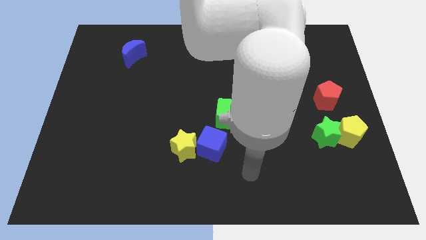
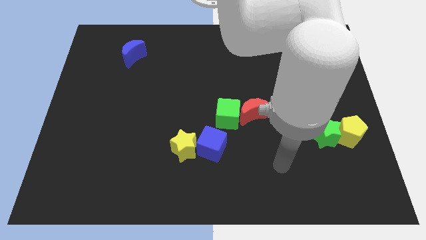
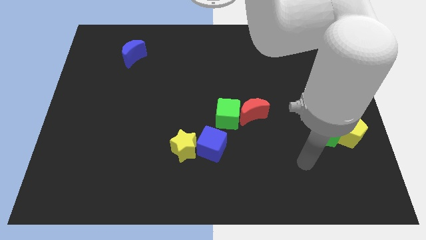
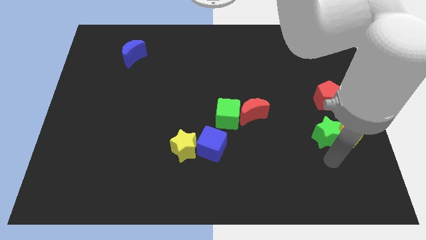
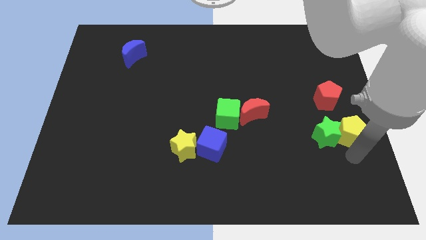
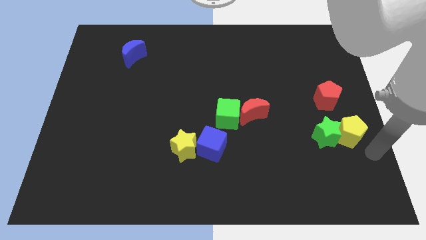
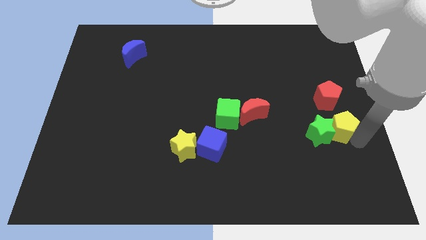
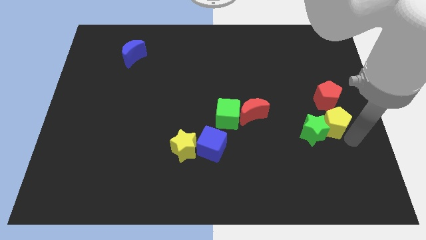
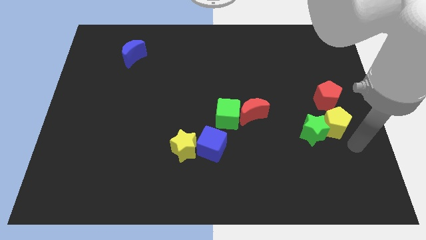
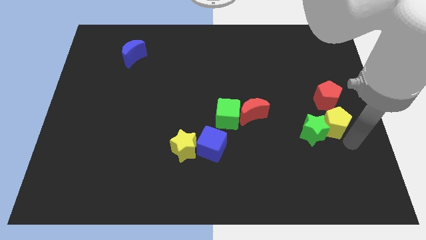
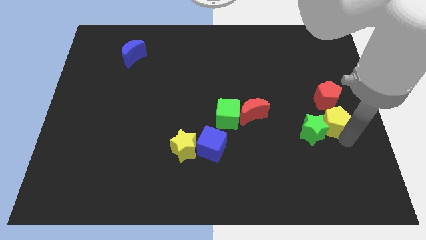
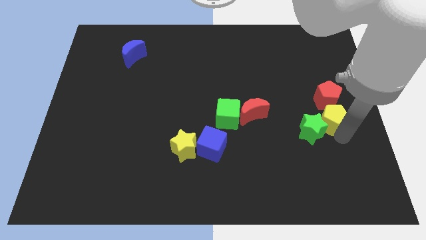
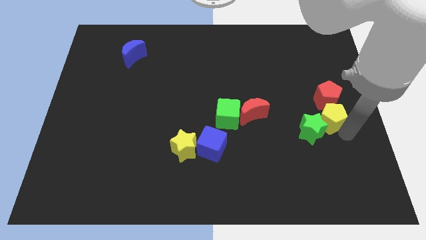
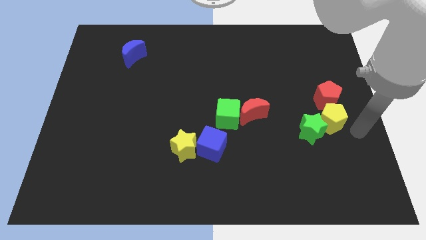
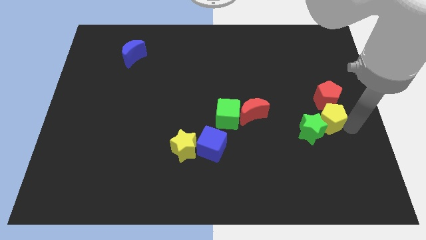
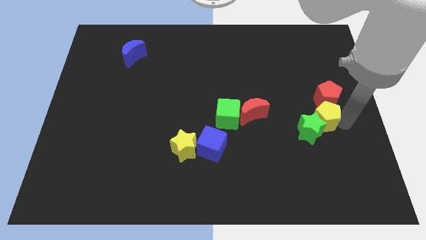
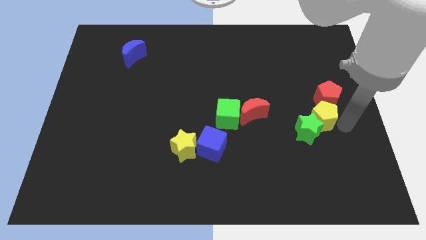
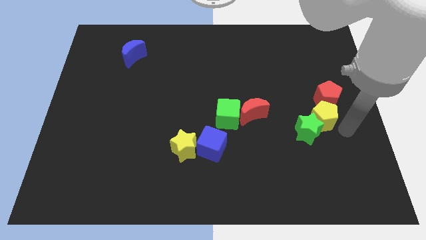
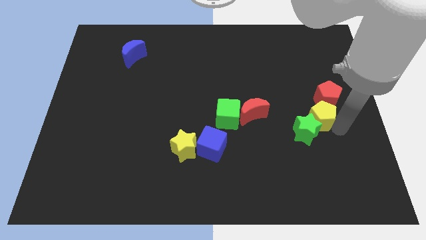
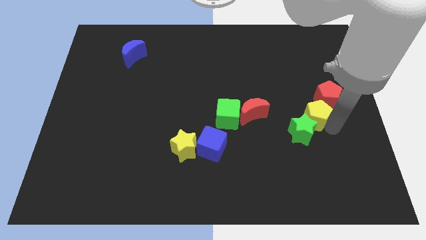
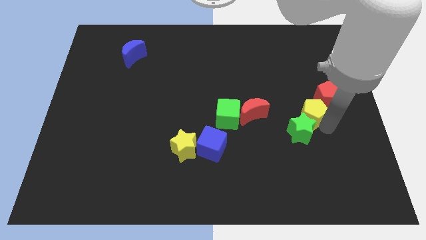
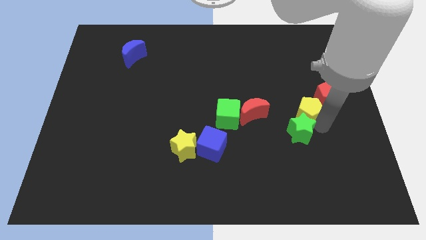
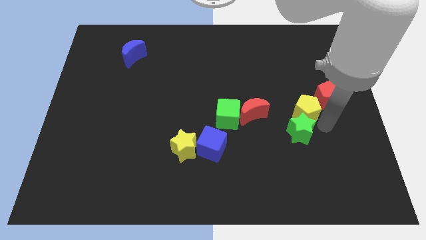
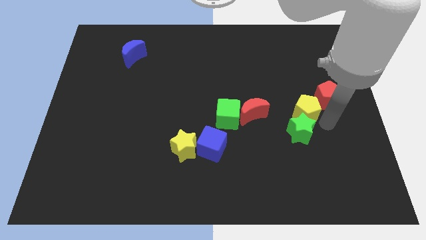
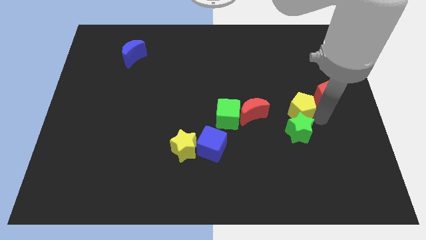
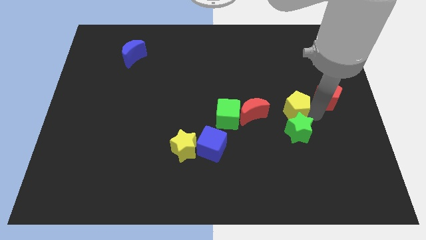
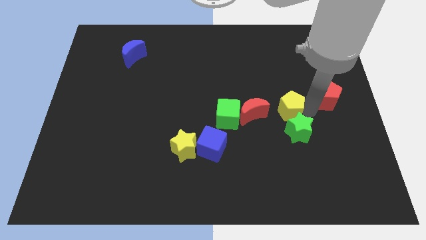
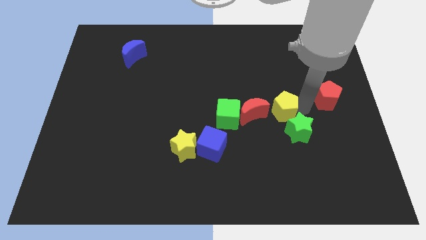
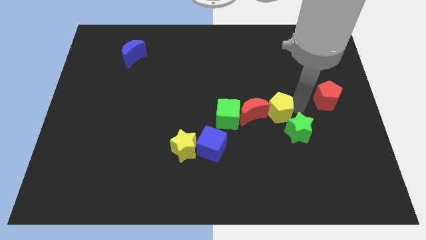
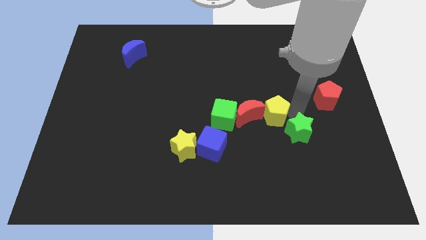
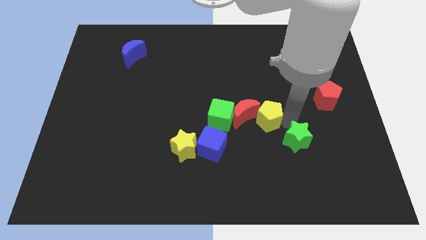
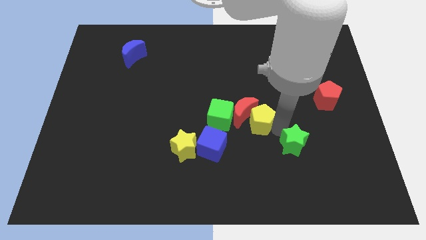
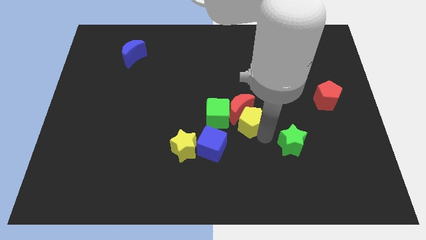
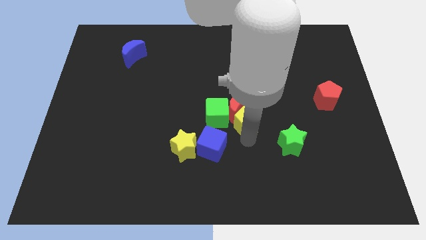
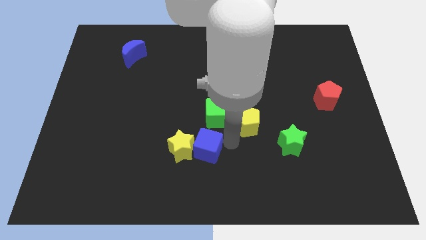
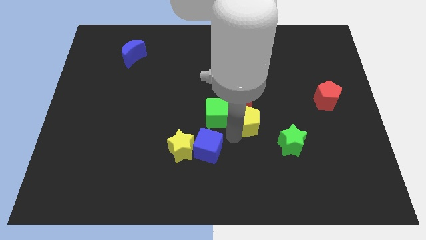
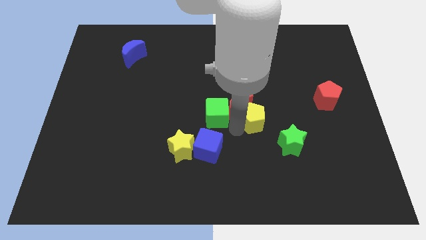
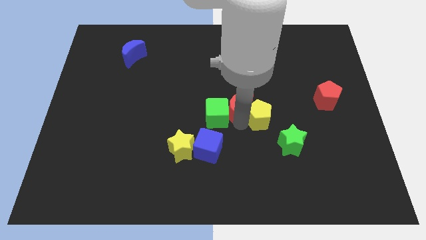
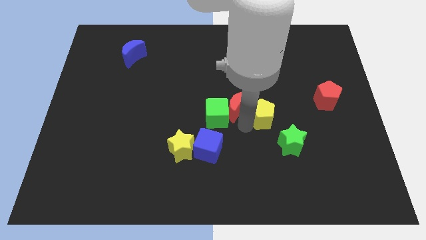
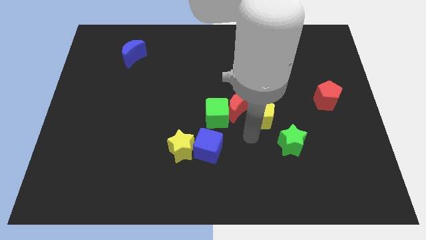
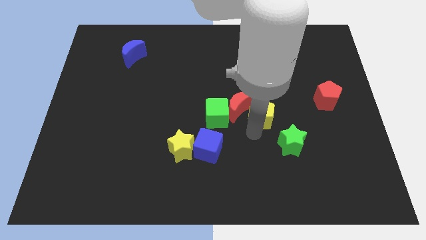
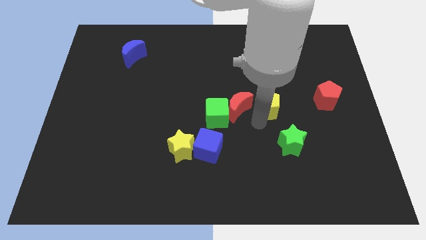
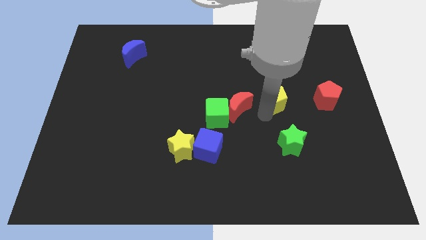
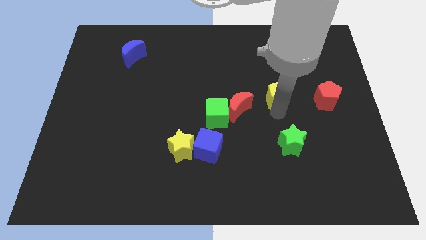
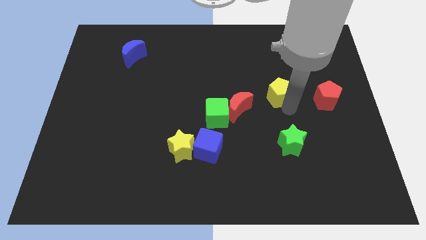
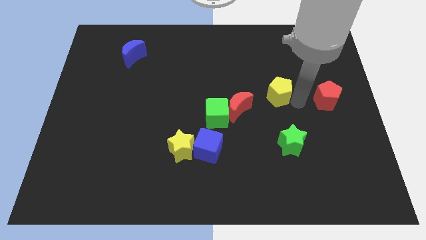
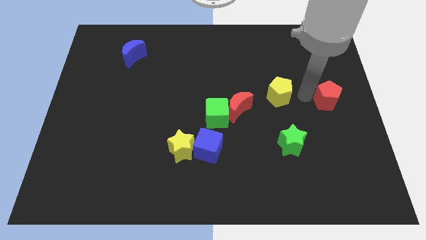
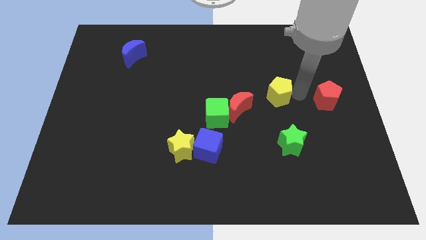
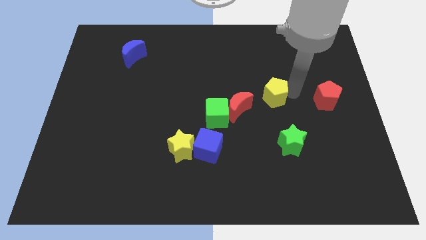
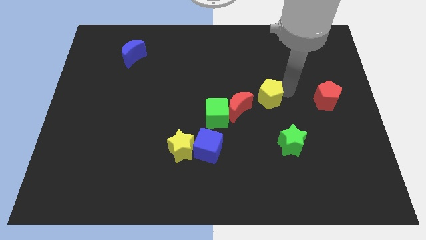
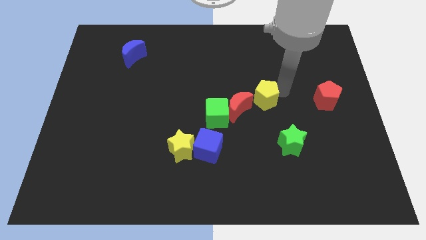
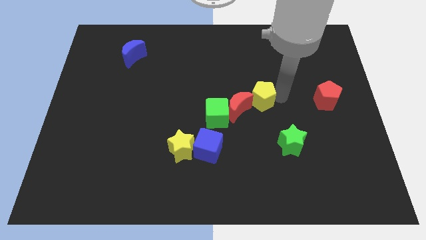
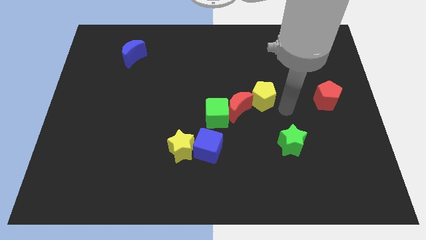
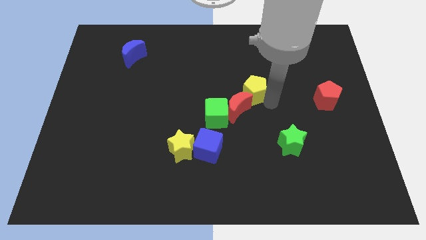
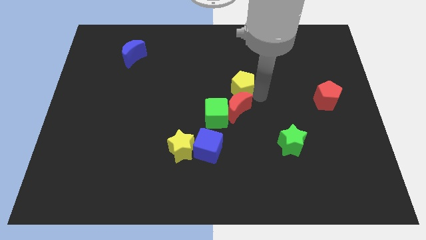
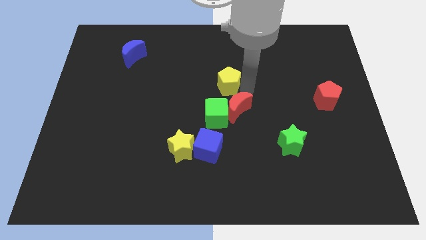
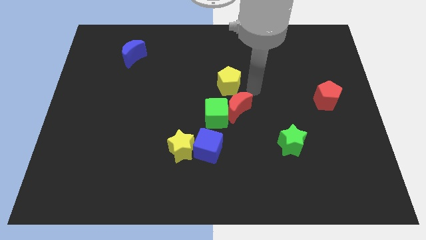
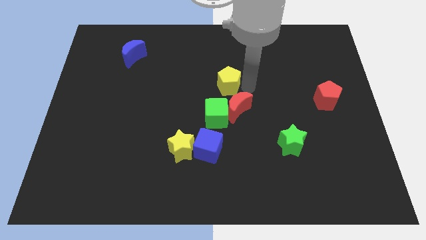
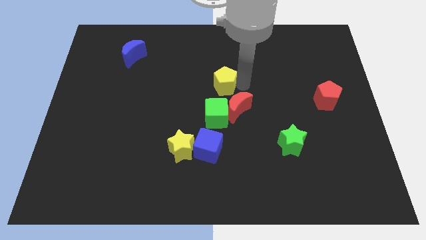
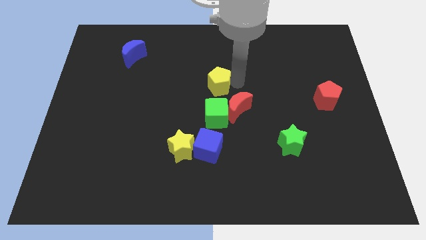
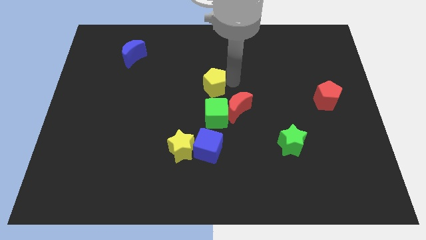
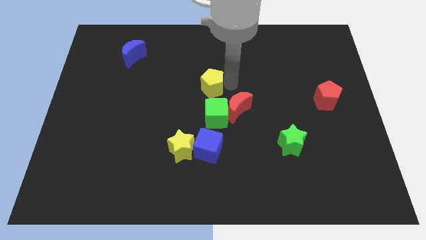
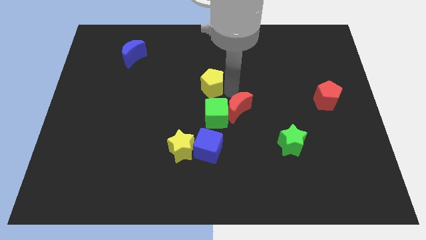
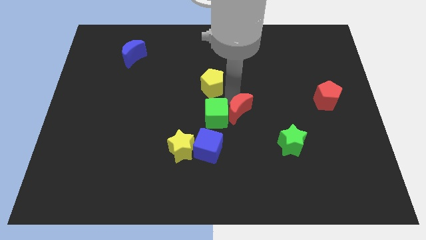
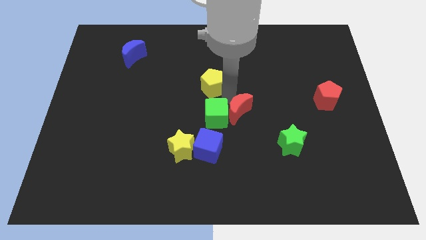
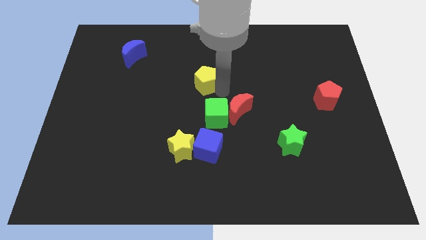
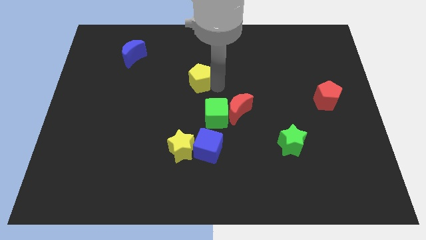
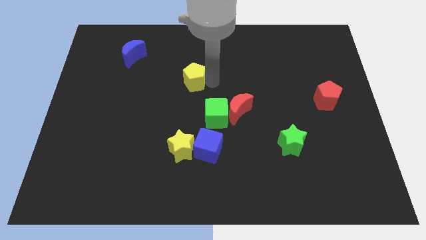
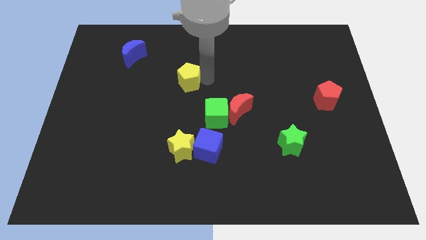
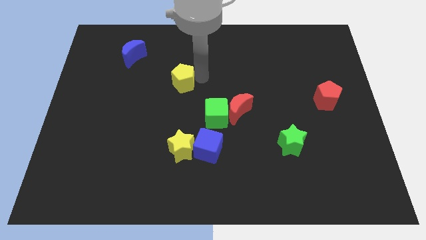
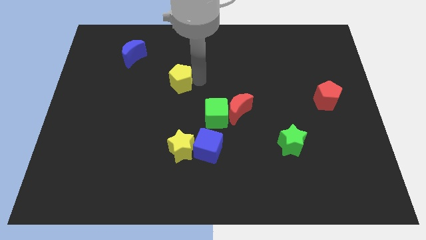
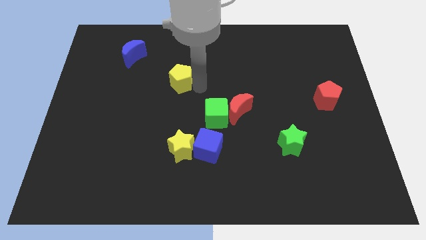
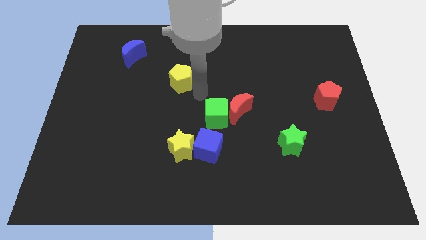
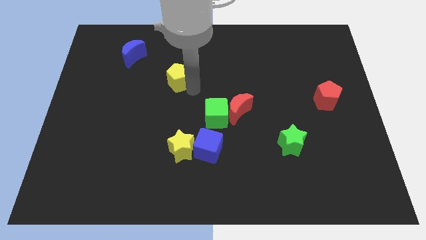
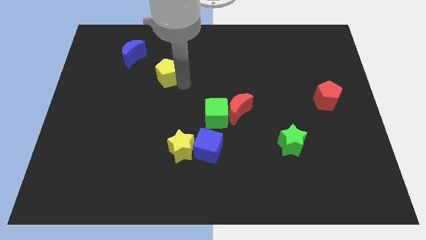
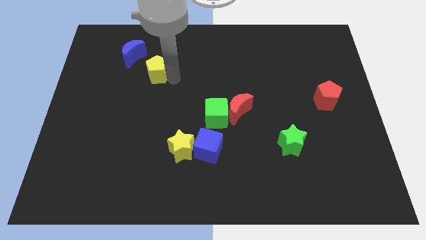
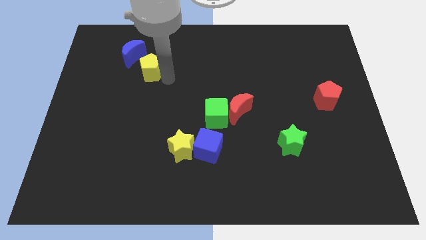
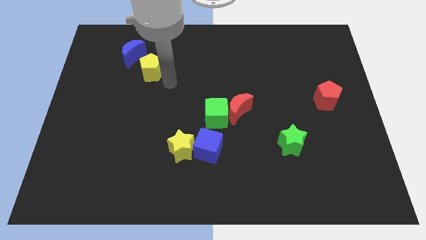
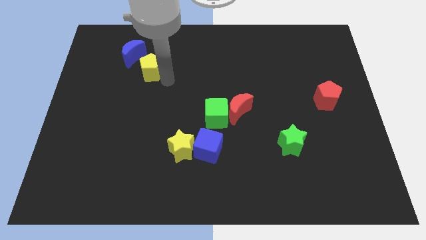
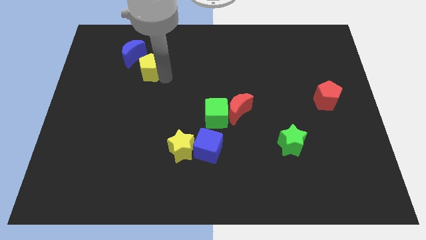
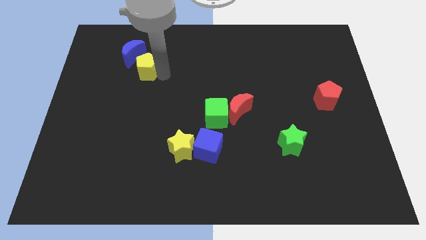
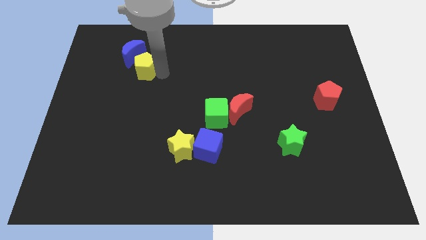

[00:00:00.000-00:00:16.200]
move the yellow pentagon close to the blue moon
